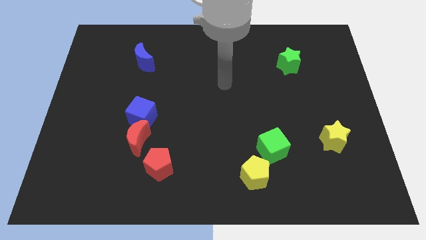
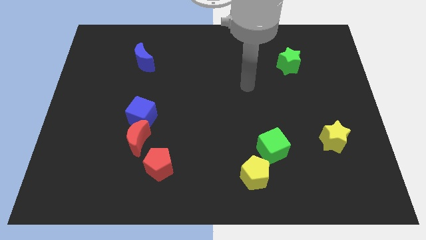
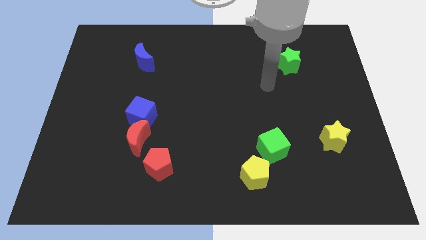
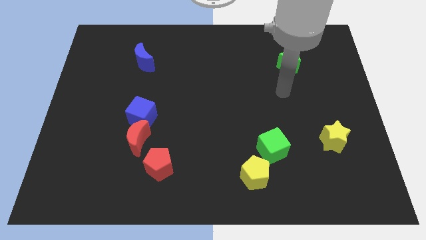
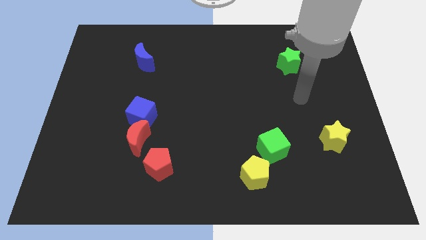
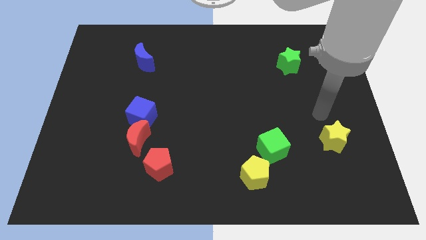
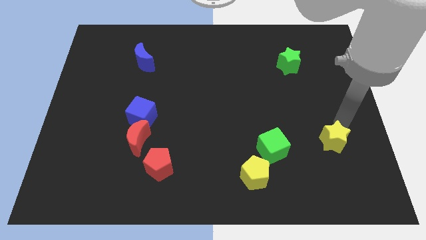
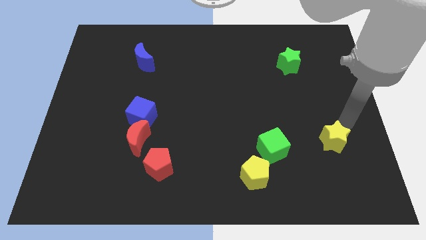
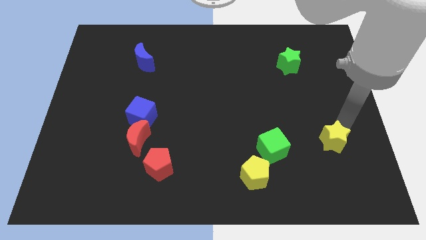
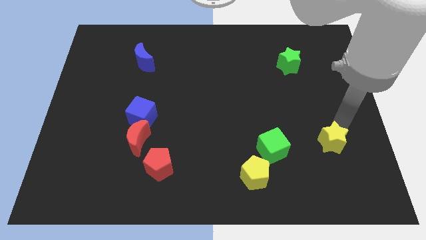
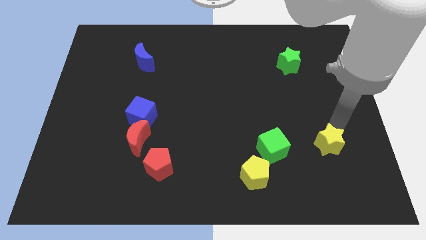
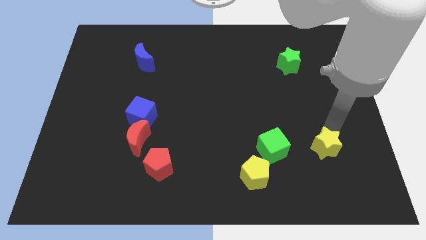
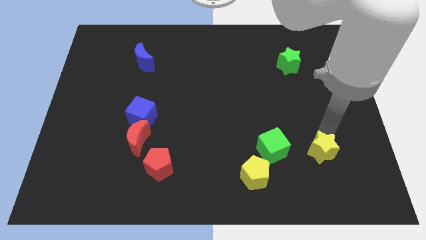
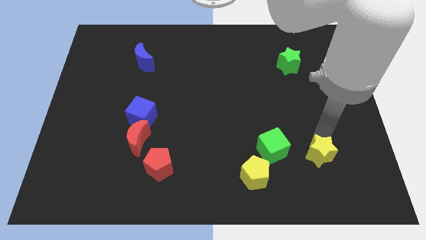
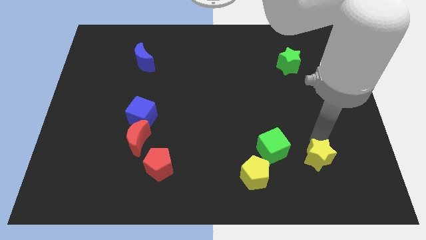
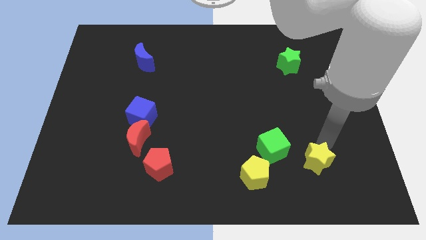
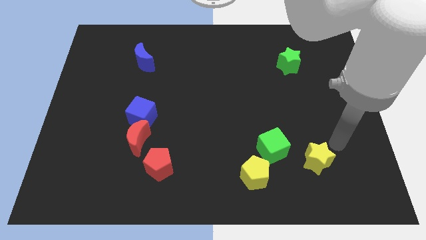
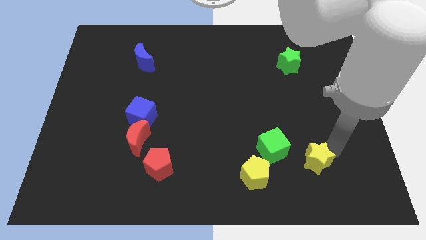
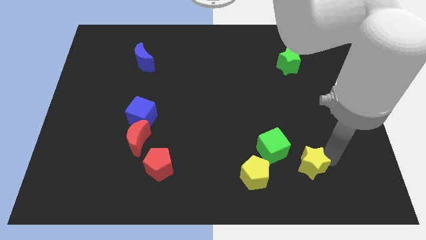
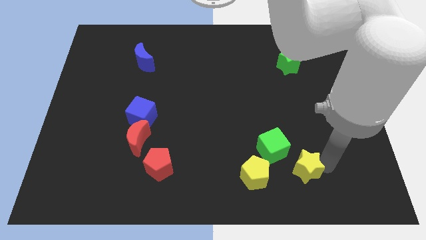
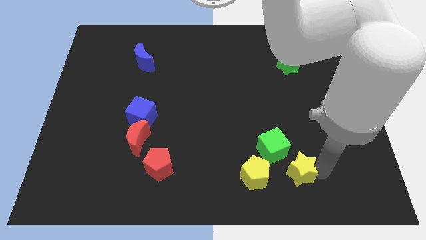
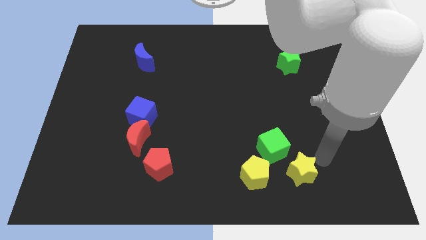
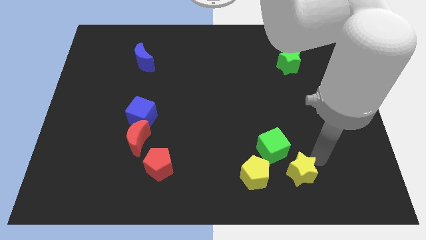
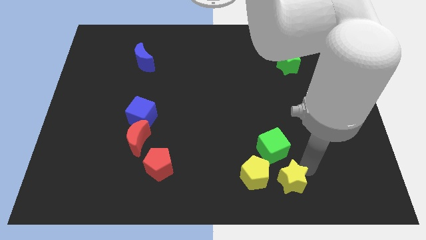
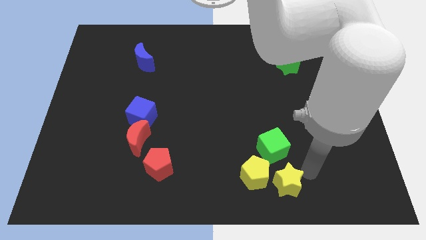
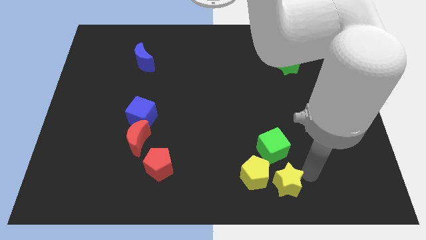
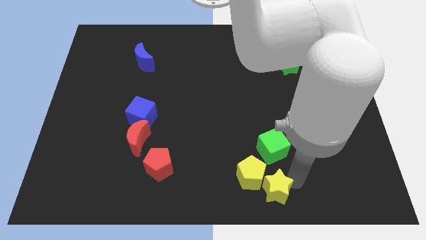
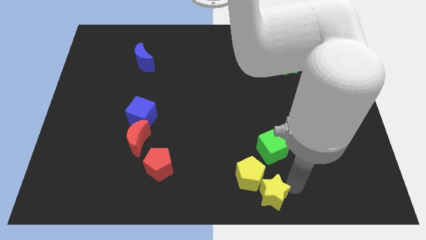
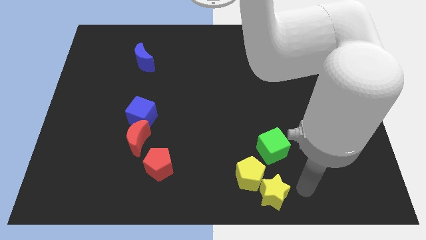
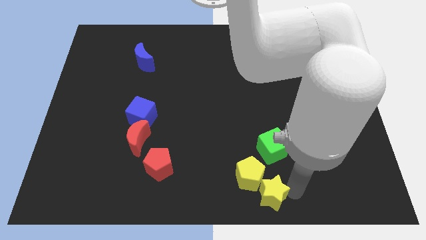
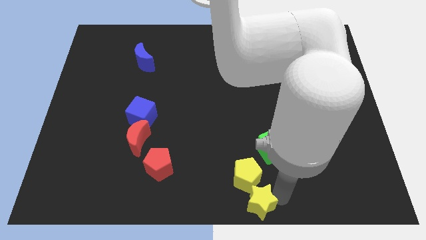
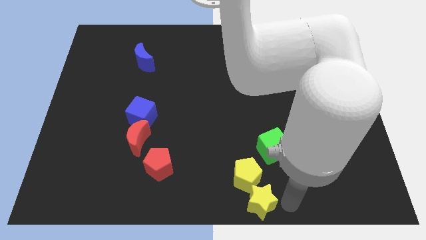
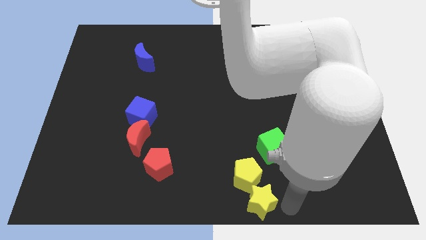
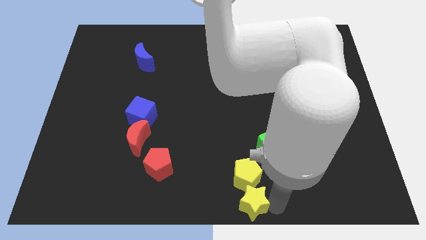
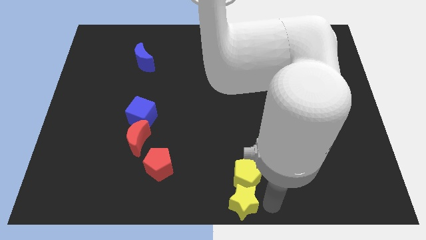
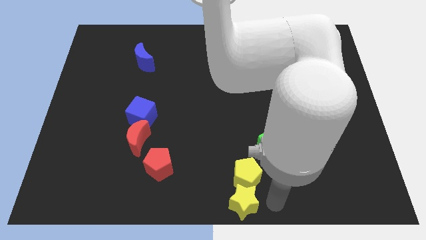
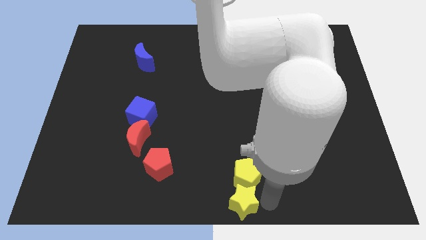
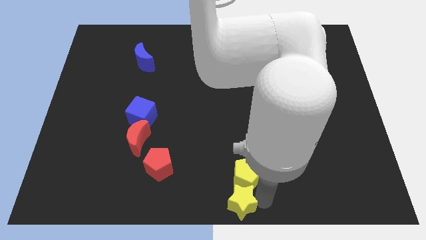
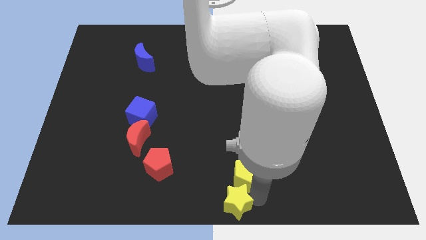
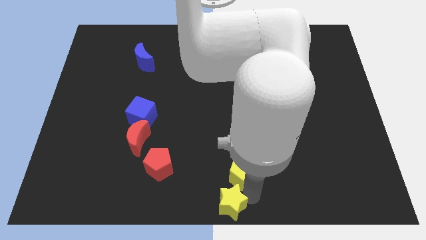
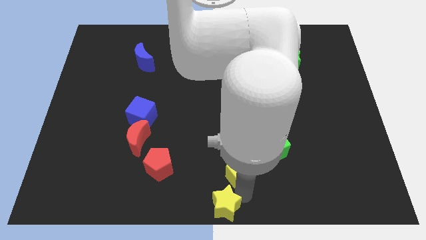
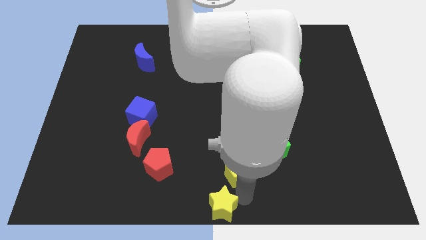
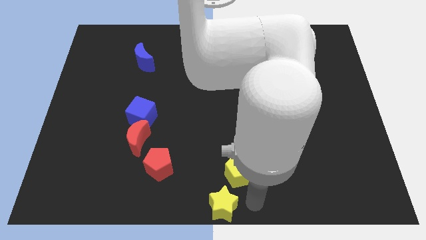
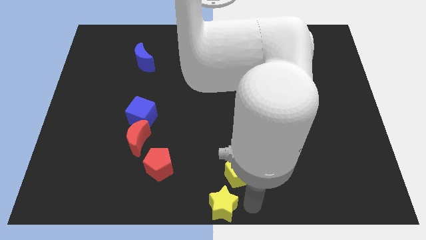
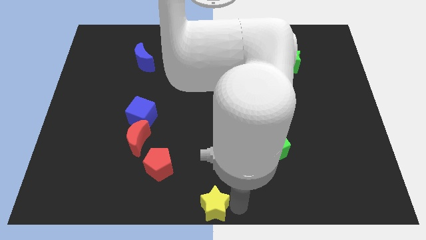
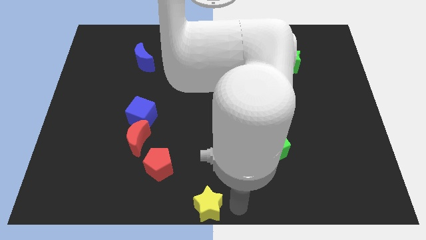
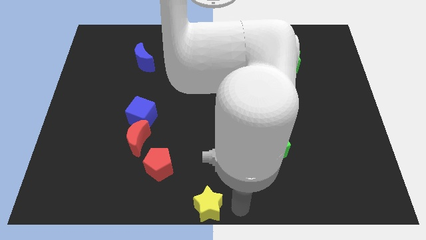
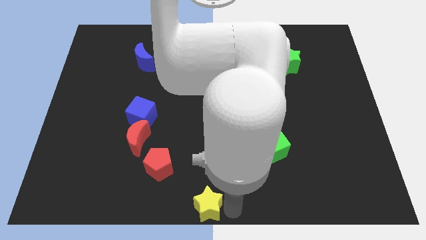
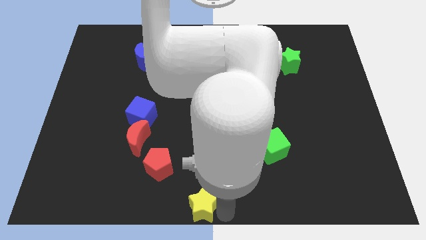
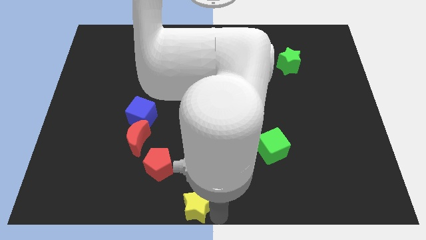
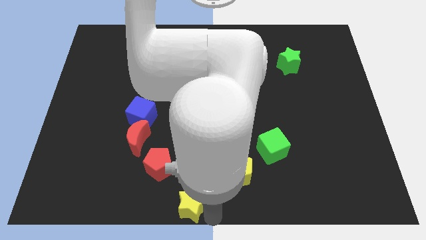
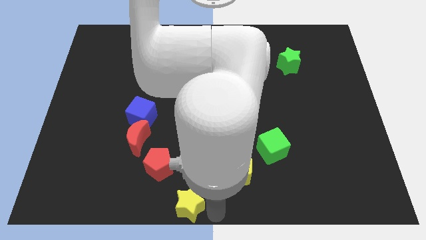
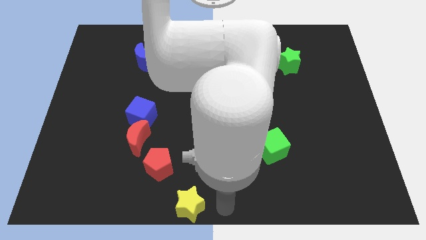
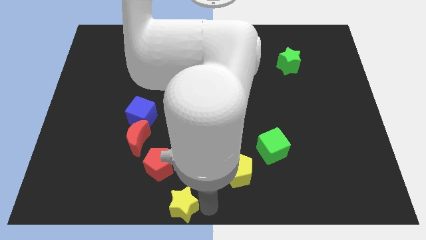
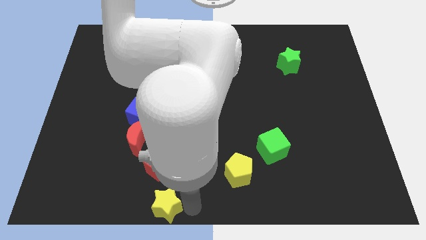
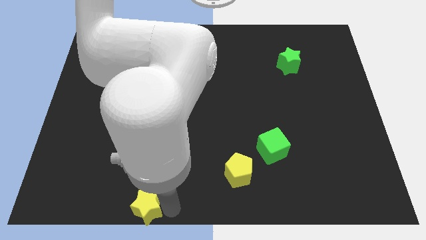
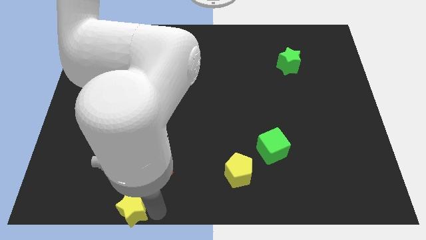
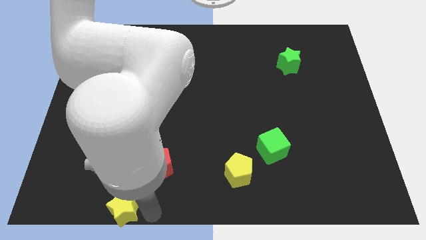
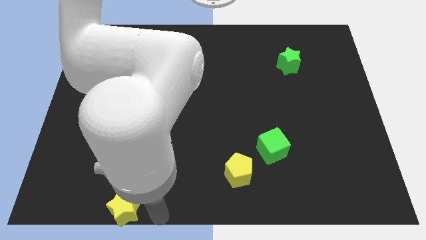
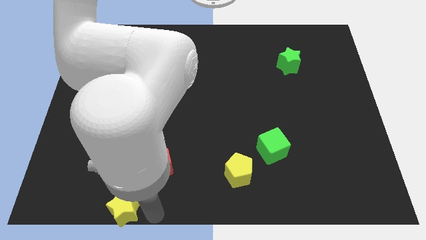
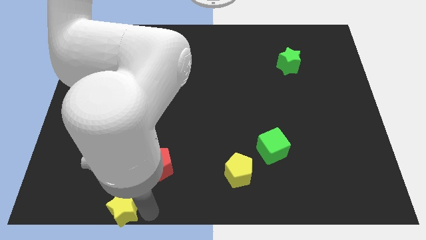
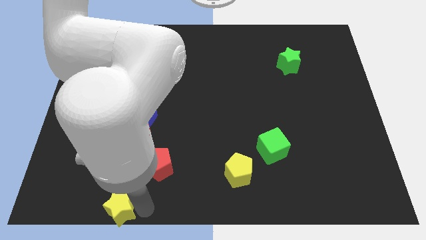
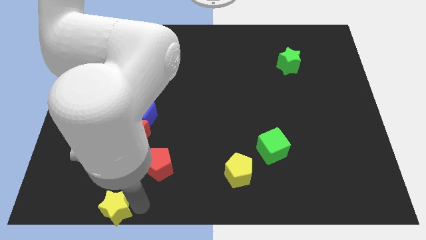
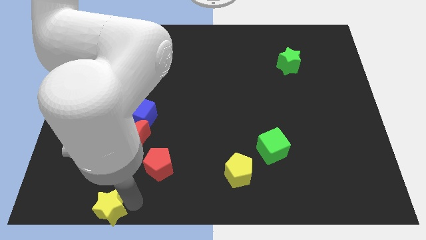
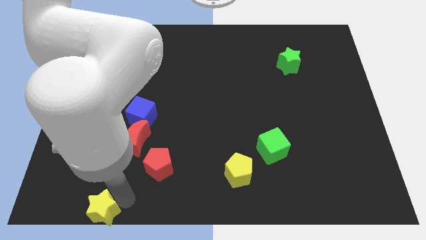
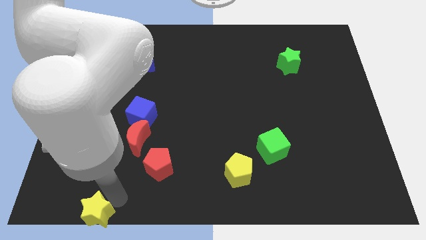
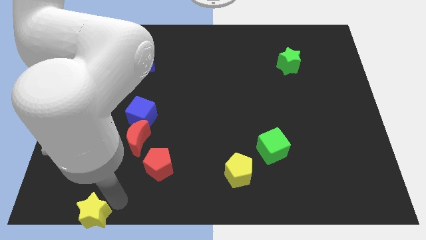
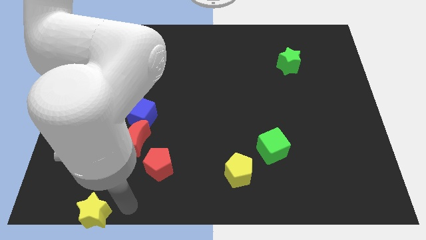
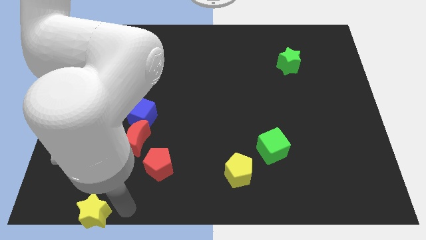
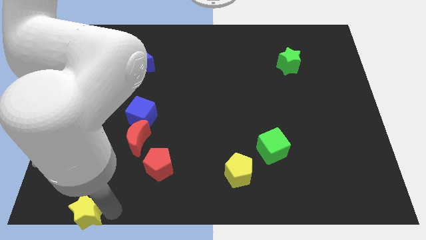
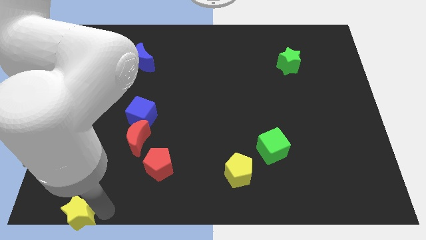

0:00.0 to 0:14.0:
put the yellow star to the bottom left of the board
